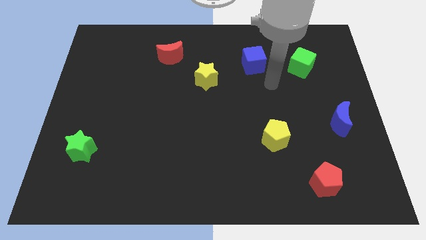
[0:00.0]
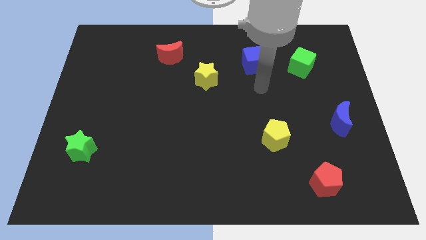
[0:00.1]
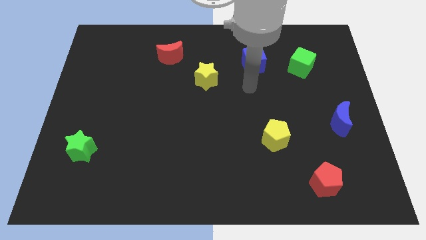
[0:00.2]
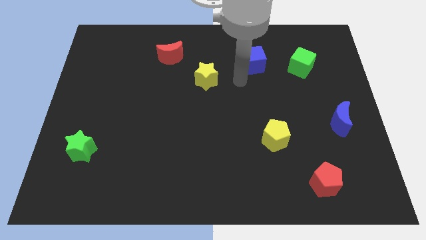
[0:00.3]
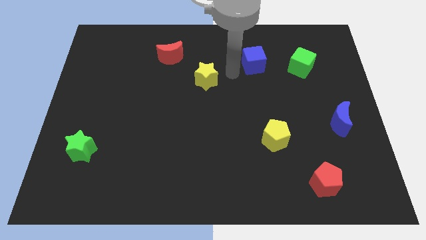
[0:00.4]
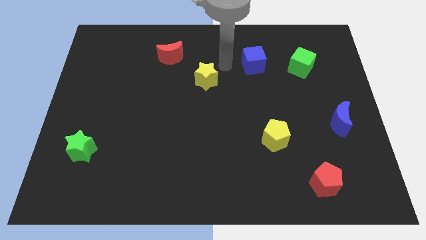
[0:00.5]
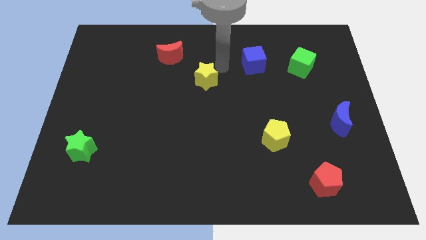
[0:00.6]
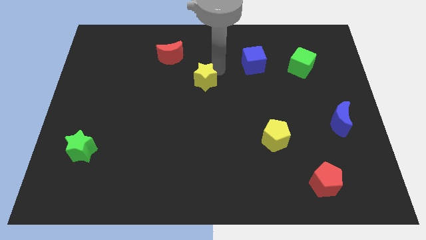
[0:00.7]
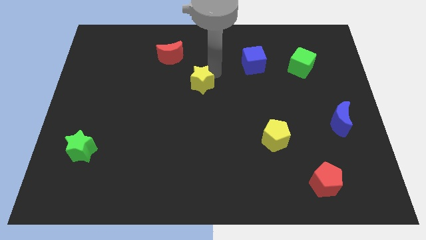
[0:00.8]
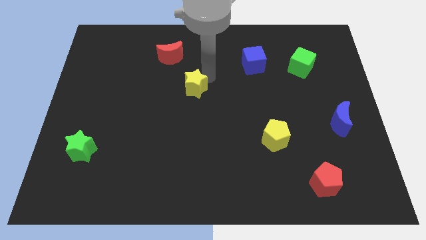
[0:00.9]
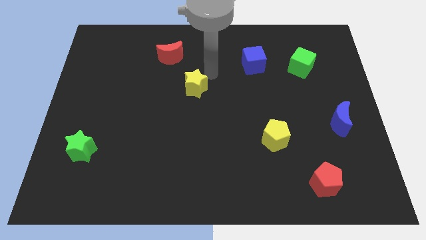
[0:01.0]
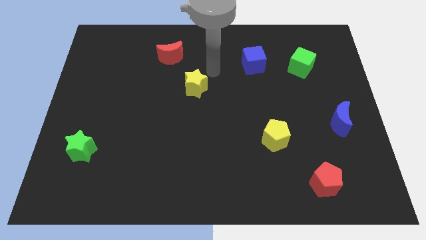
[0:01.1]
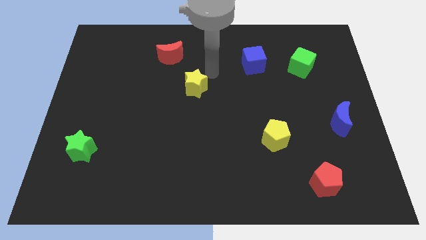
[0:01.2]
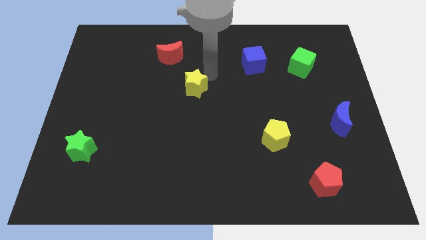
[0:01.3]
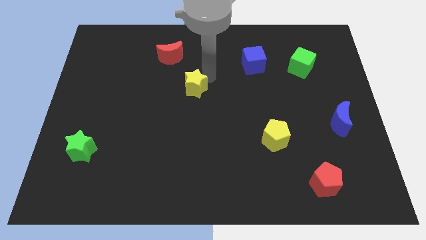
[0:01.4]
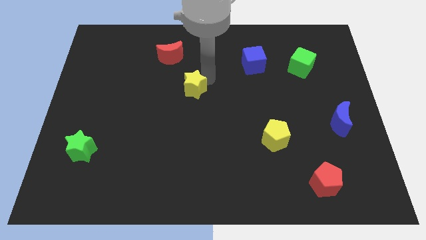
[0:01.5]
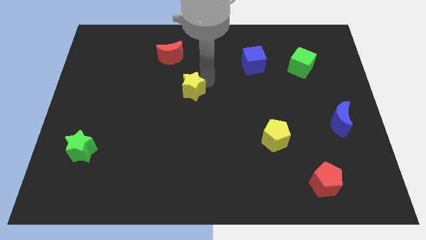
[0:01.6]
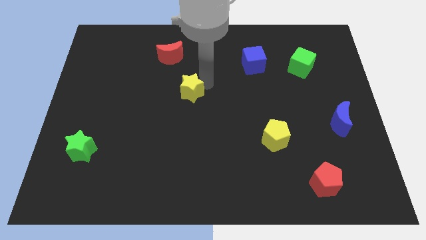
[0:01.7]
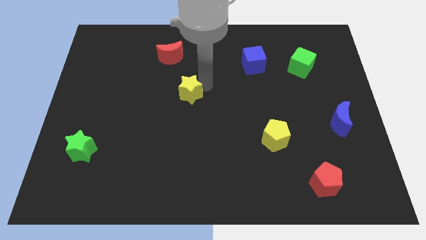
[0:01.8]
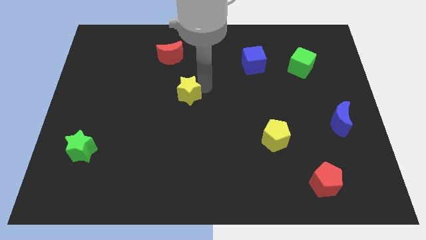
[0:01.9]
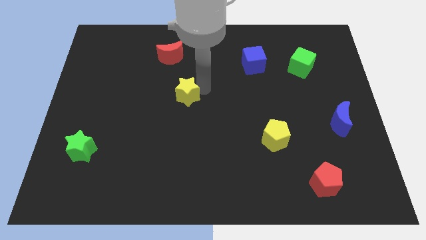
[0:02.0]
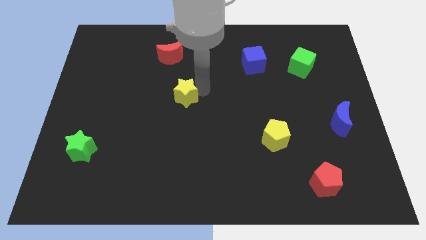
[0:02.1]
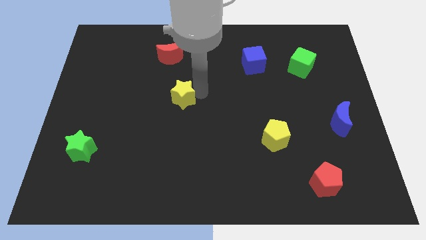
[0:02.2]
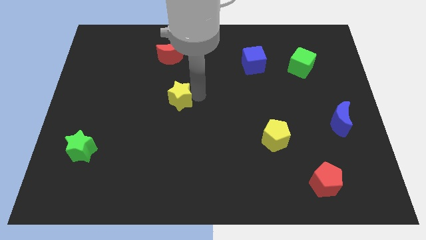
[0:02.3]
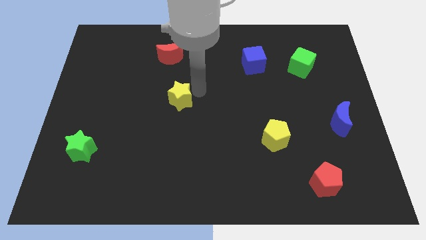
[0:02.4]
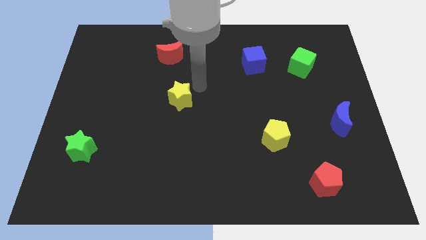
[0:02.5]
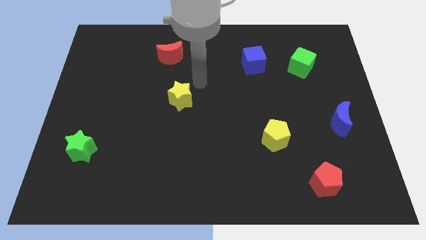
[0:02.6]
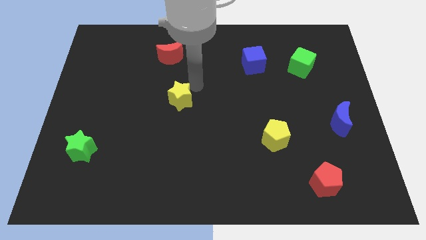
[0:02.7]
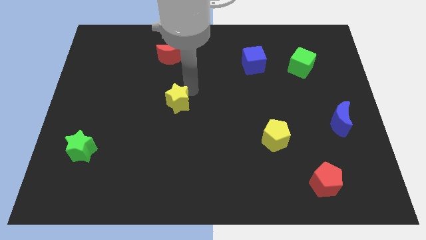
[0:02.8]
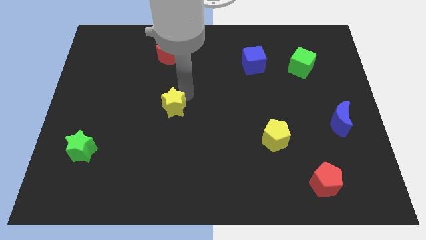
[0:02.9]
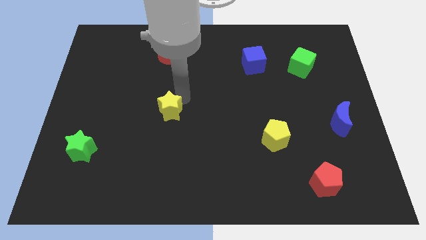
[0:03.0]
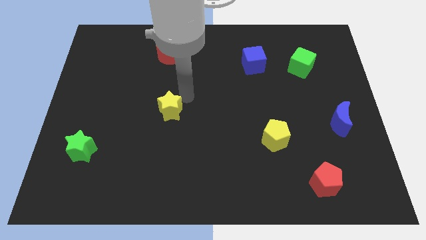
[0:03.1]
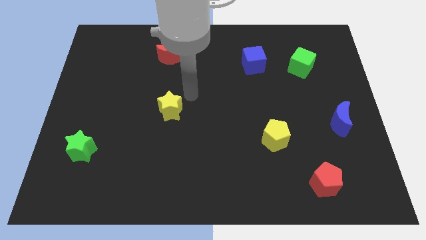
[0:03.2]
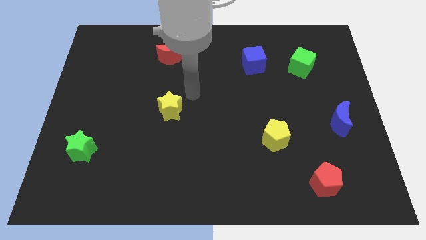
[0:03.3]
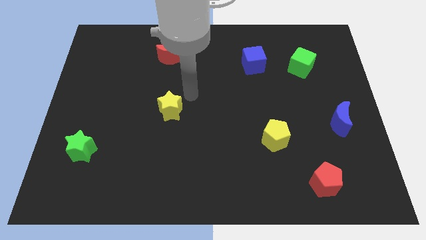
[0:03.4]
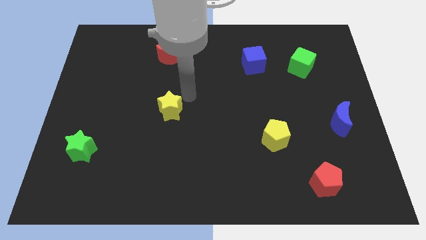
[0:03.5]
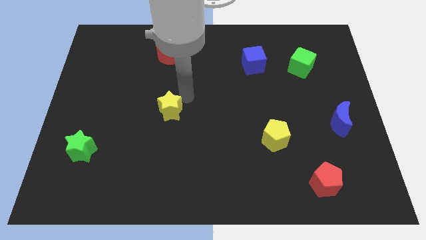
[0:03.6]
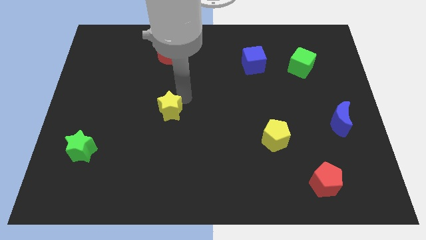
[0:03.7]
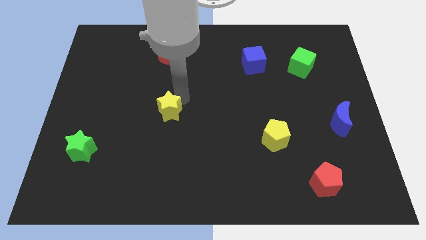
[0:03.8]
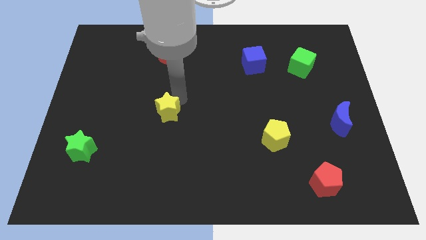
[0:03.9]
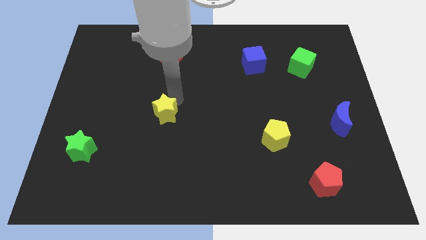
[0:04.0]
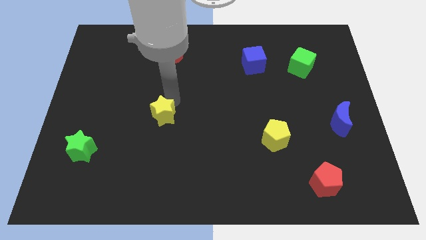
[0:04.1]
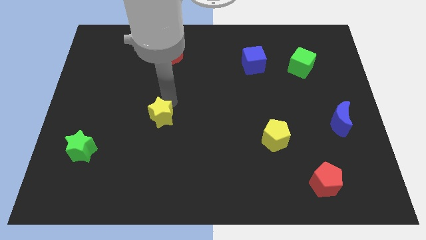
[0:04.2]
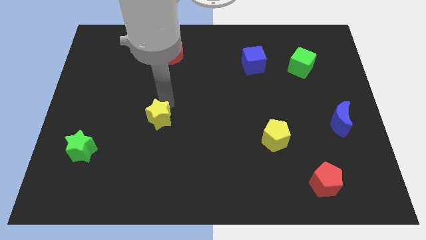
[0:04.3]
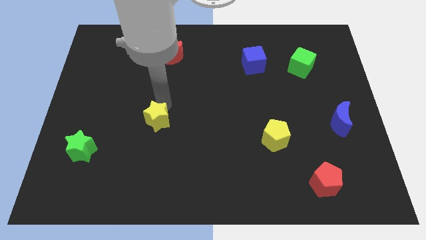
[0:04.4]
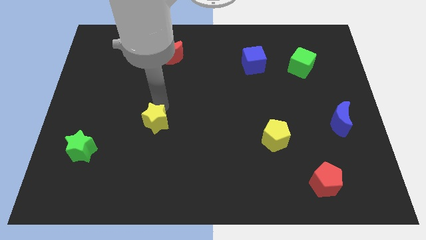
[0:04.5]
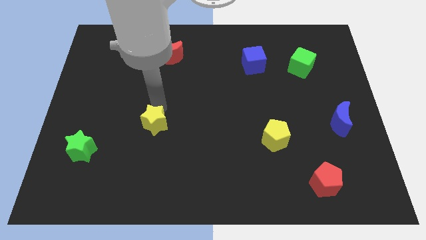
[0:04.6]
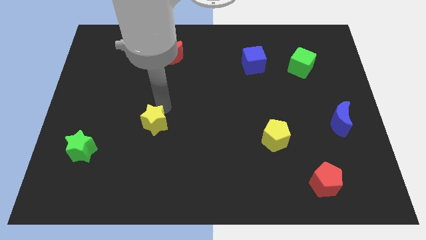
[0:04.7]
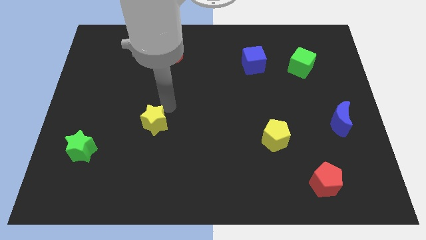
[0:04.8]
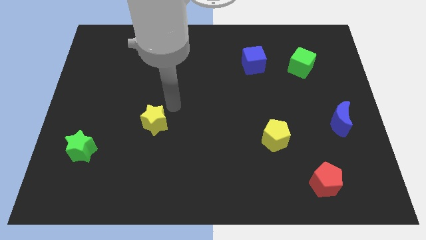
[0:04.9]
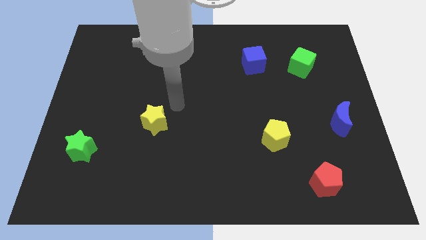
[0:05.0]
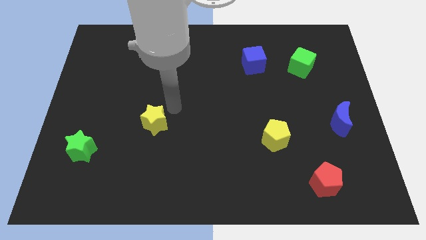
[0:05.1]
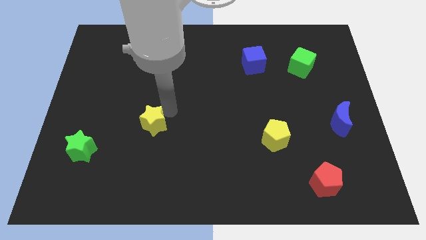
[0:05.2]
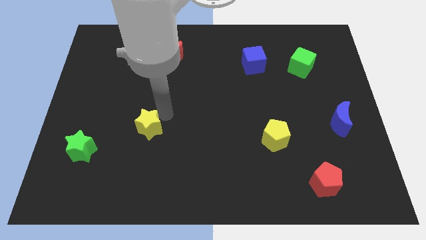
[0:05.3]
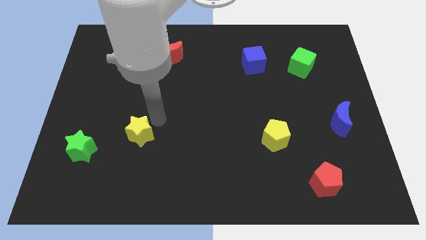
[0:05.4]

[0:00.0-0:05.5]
slide the yellow star down and to the left diagonally

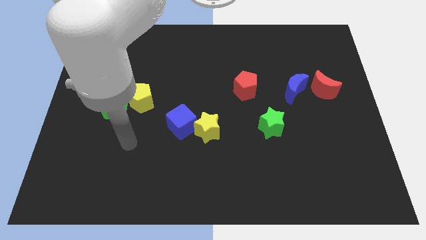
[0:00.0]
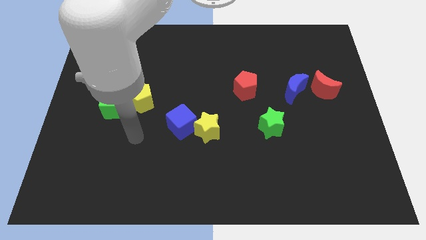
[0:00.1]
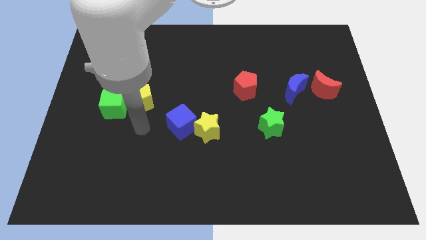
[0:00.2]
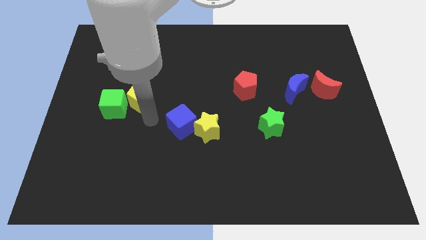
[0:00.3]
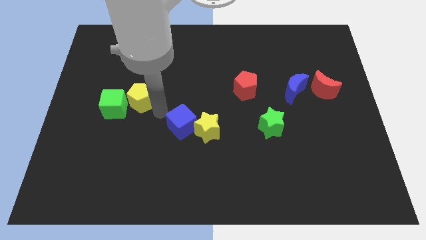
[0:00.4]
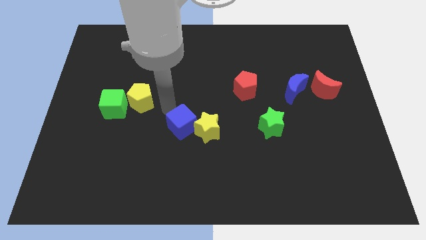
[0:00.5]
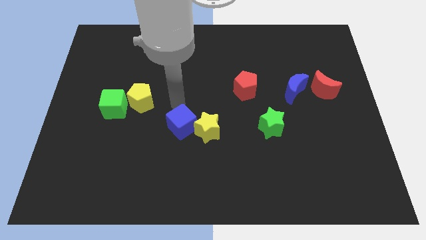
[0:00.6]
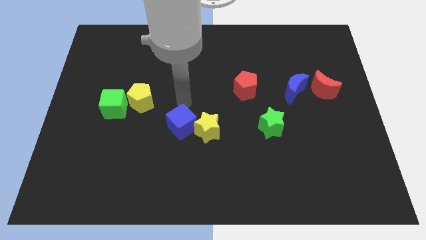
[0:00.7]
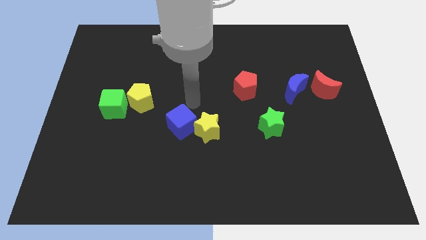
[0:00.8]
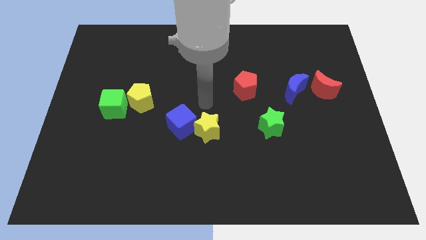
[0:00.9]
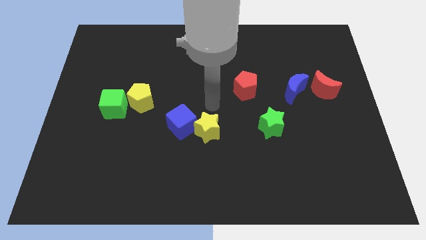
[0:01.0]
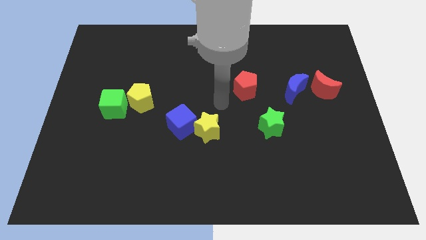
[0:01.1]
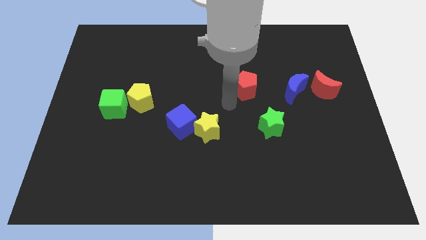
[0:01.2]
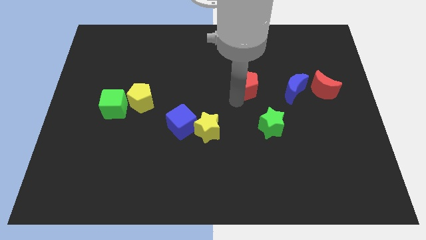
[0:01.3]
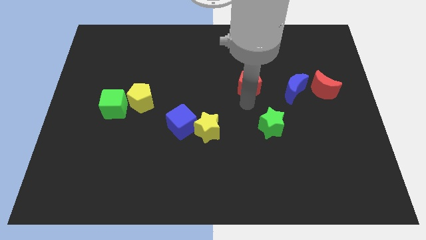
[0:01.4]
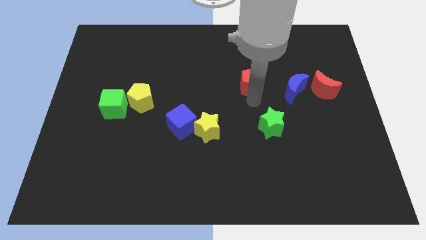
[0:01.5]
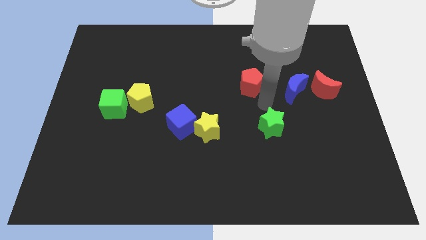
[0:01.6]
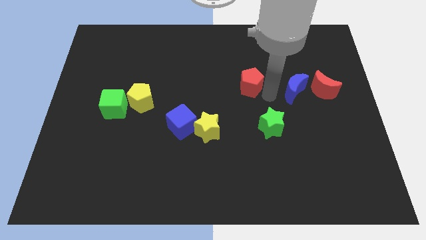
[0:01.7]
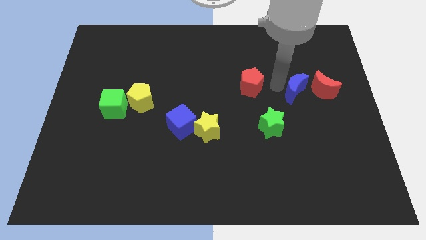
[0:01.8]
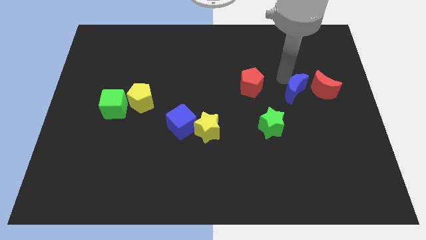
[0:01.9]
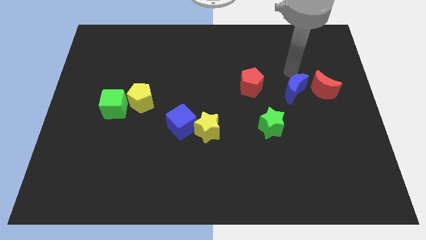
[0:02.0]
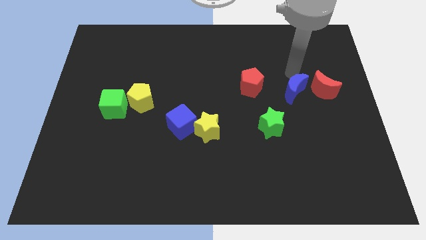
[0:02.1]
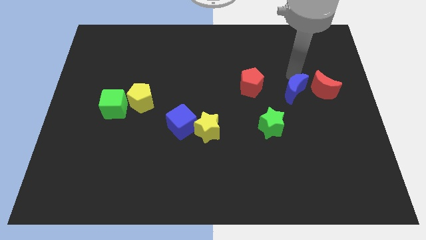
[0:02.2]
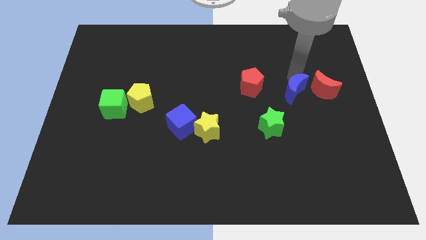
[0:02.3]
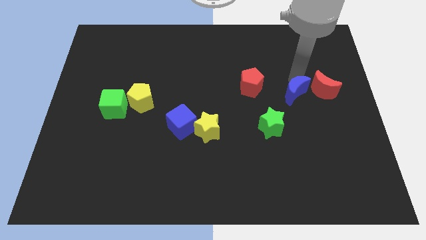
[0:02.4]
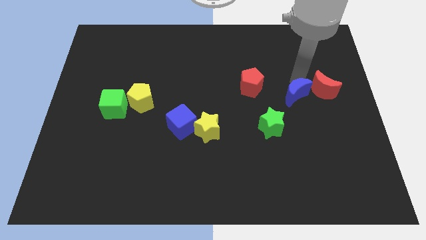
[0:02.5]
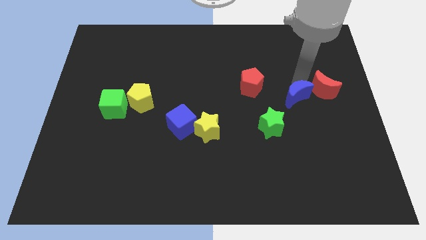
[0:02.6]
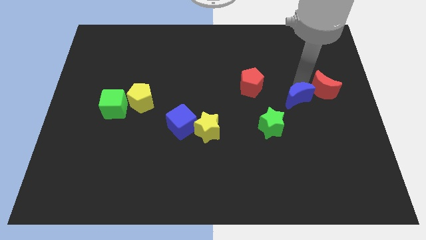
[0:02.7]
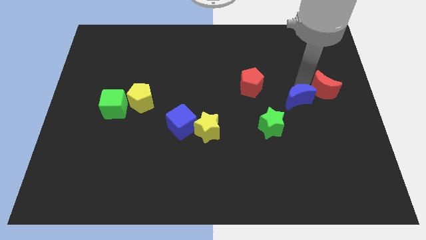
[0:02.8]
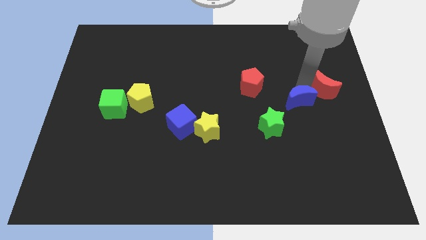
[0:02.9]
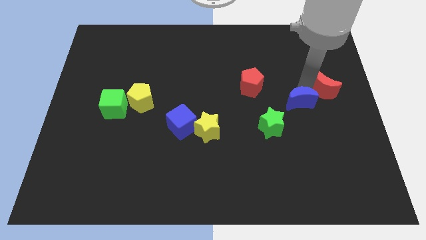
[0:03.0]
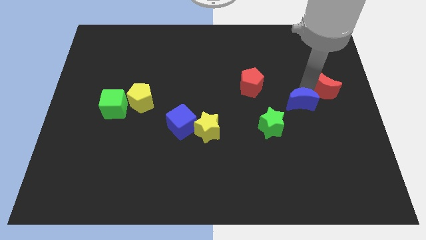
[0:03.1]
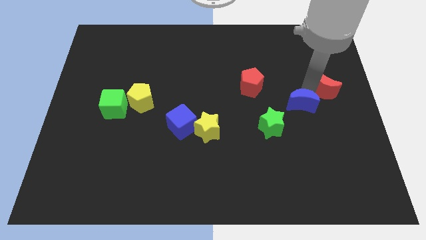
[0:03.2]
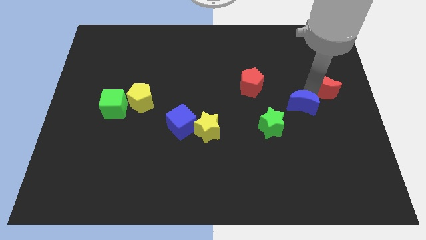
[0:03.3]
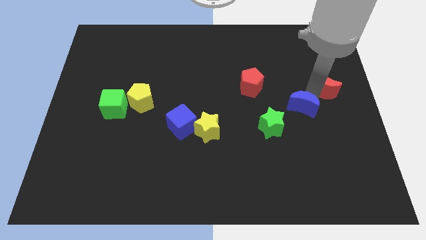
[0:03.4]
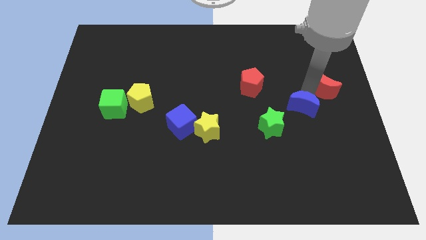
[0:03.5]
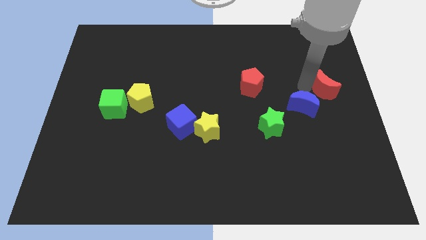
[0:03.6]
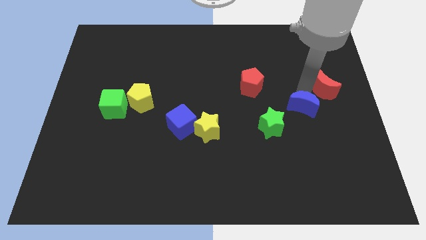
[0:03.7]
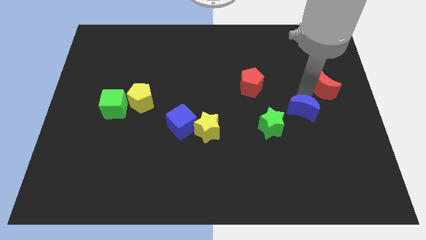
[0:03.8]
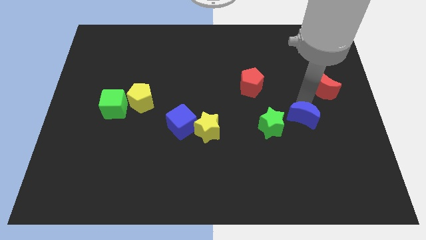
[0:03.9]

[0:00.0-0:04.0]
move the blue moon slightly down
